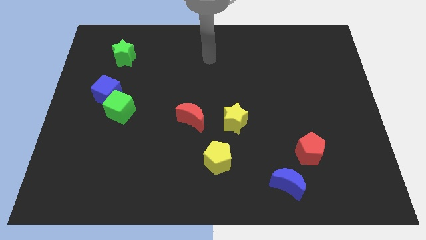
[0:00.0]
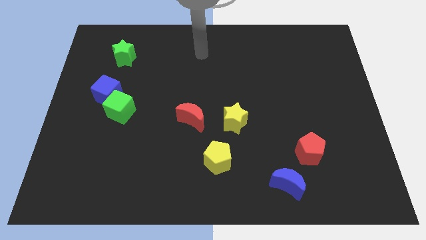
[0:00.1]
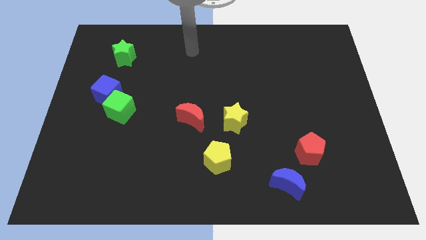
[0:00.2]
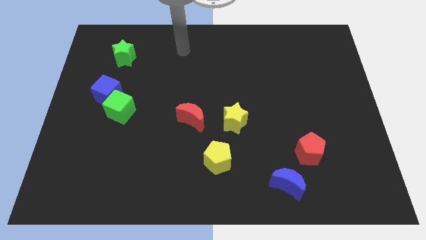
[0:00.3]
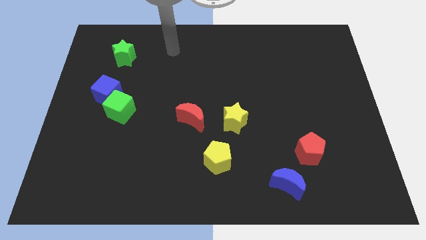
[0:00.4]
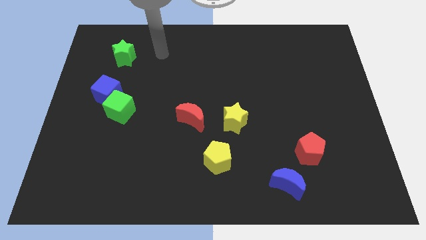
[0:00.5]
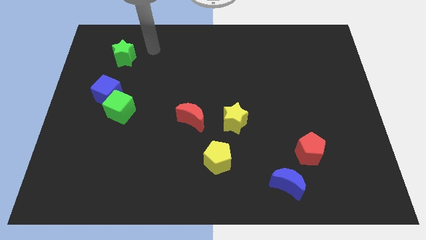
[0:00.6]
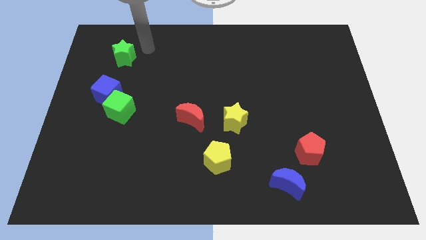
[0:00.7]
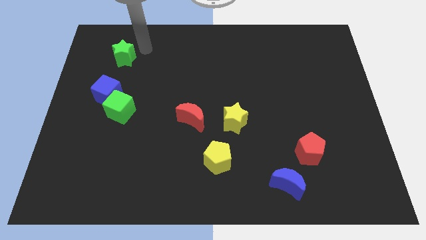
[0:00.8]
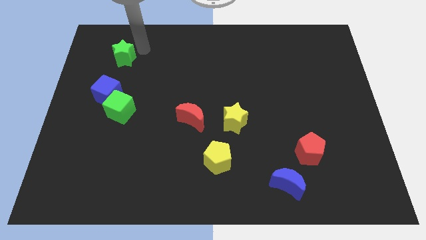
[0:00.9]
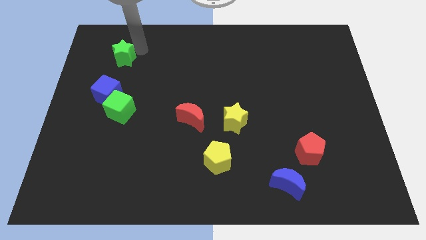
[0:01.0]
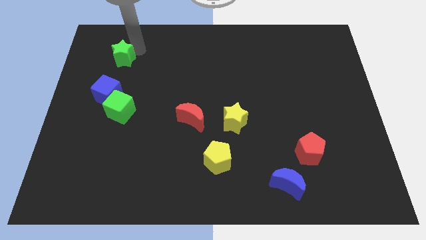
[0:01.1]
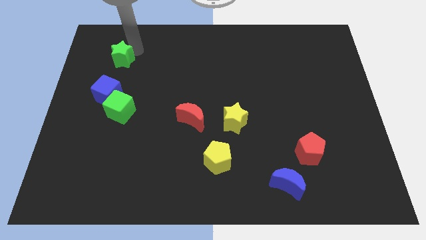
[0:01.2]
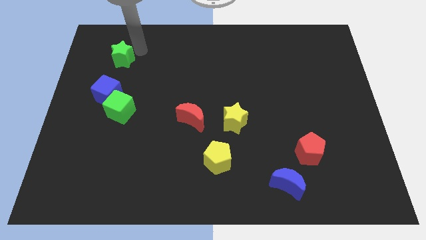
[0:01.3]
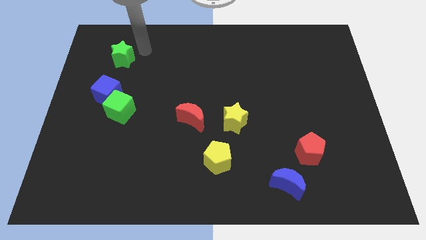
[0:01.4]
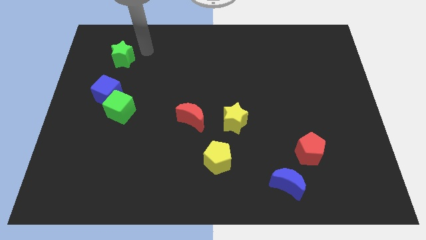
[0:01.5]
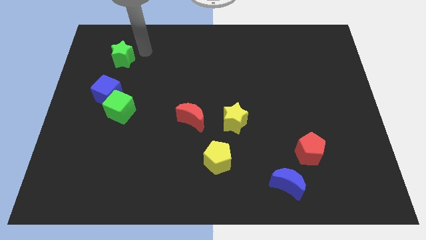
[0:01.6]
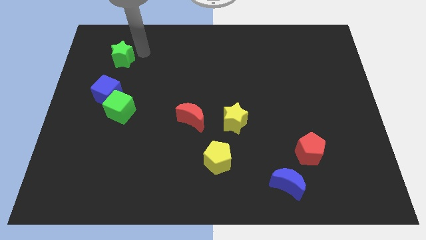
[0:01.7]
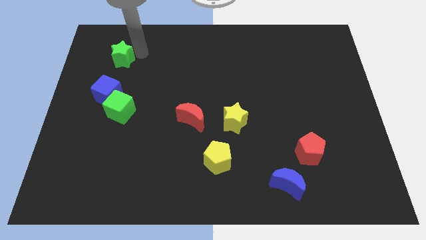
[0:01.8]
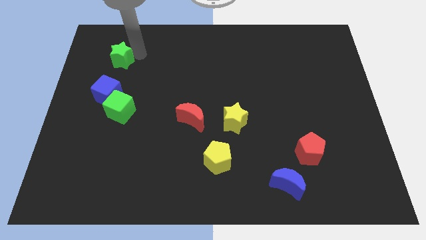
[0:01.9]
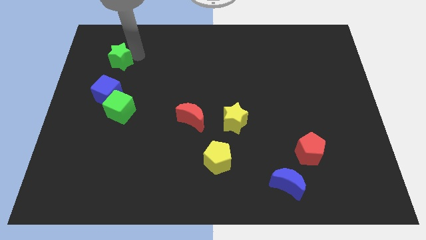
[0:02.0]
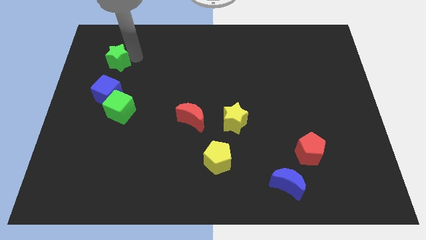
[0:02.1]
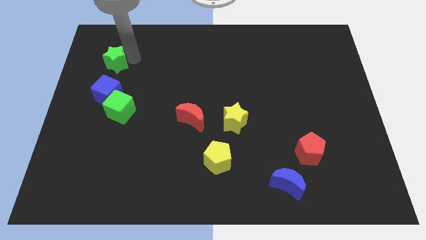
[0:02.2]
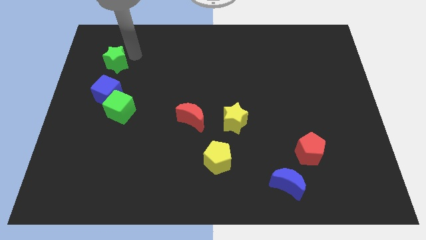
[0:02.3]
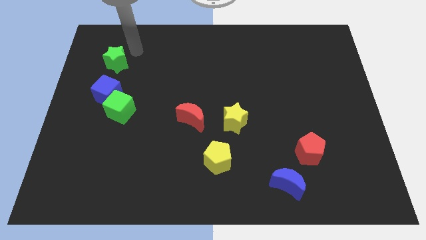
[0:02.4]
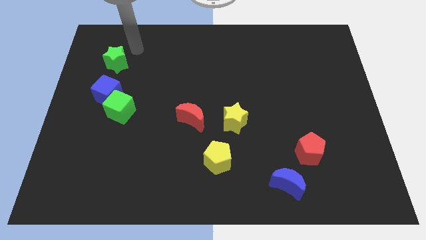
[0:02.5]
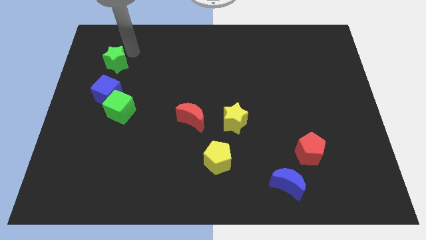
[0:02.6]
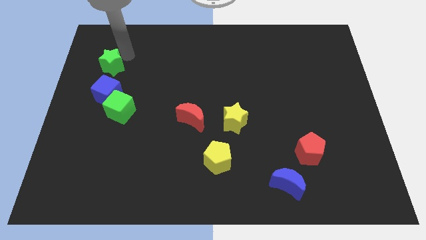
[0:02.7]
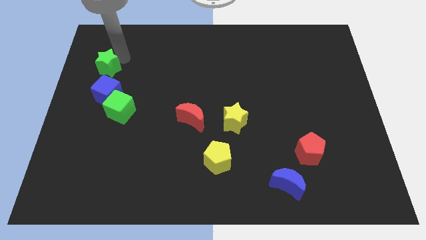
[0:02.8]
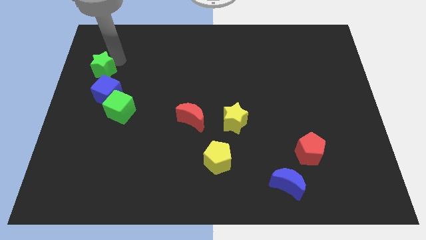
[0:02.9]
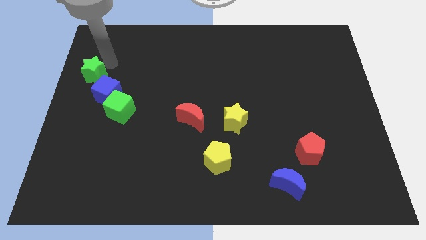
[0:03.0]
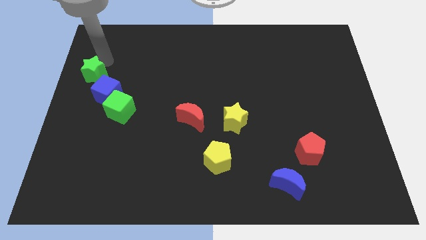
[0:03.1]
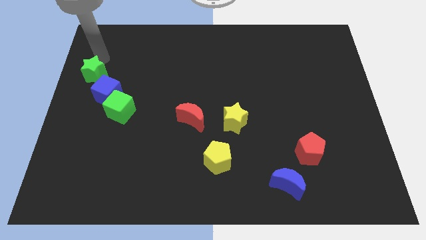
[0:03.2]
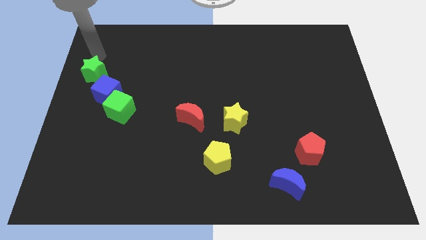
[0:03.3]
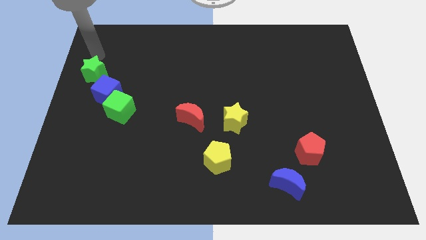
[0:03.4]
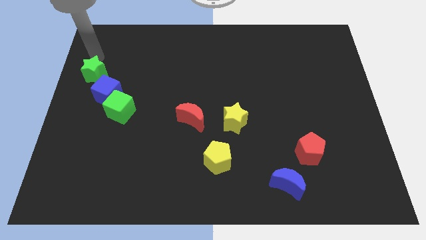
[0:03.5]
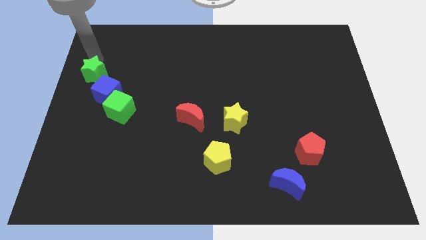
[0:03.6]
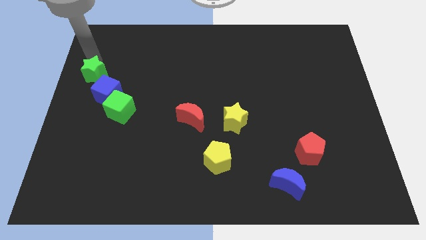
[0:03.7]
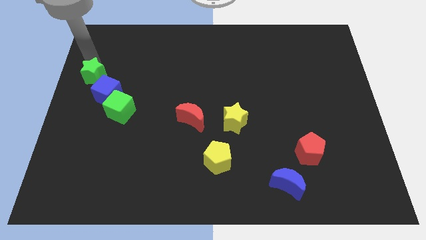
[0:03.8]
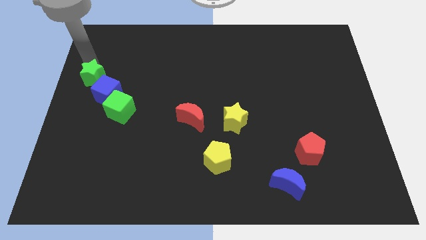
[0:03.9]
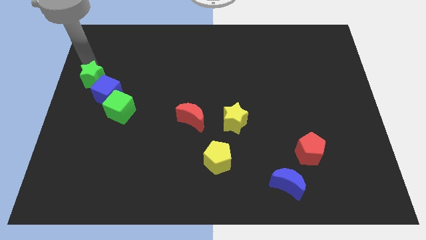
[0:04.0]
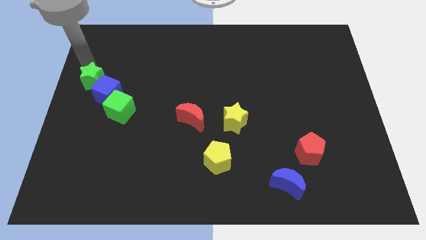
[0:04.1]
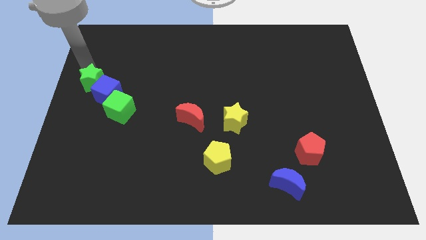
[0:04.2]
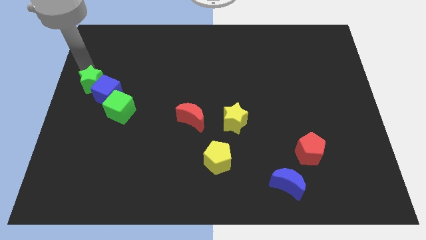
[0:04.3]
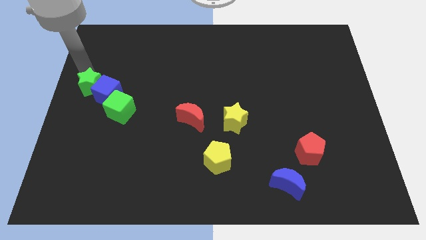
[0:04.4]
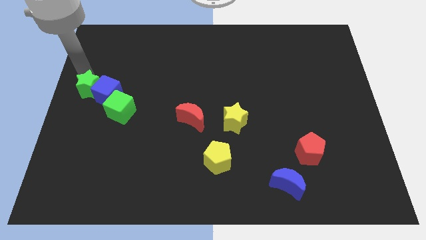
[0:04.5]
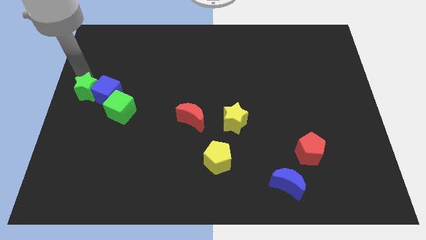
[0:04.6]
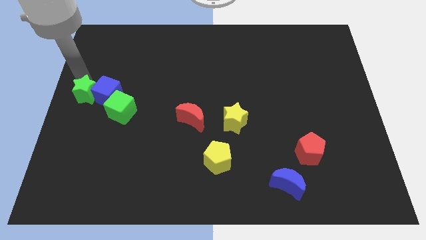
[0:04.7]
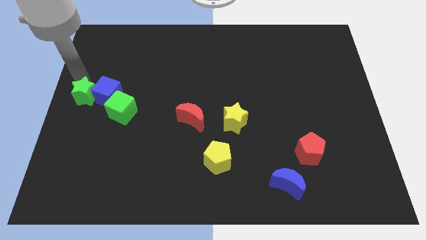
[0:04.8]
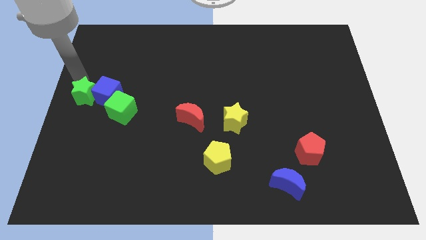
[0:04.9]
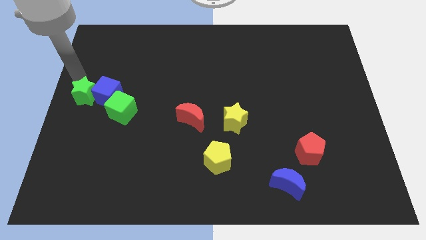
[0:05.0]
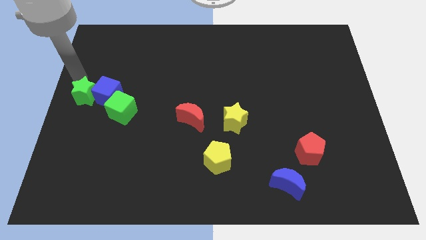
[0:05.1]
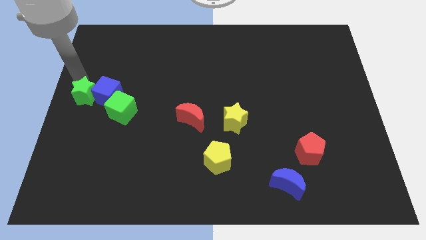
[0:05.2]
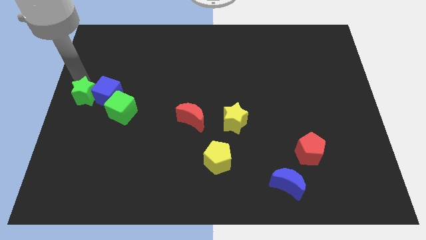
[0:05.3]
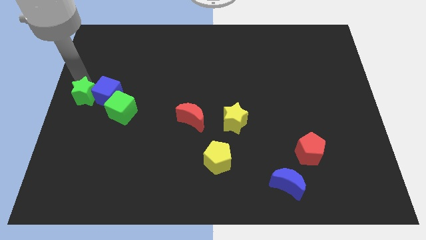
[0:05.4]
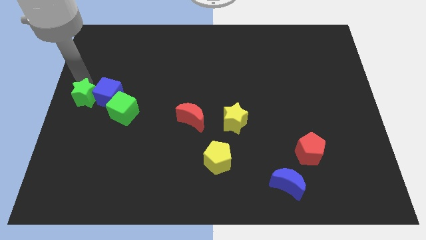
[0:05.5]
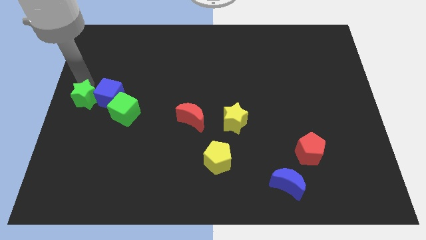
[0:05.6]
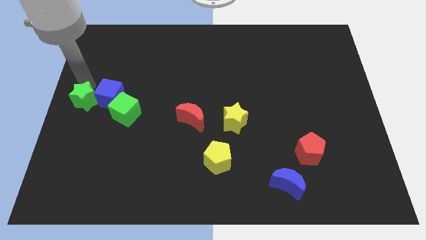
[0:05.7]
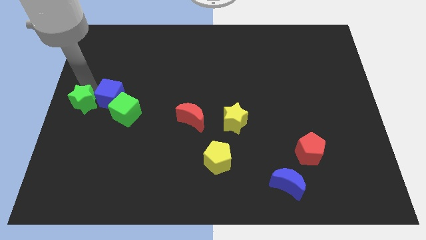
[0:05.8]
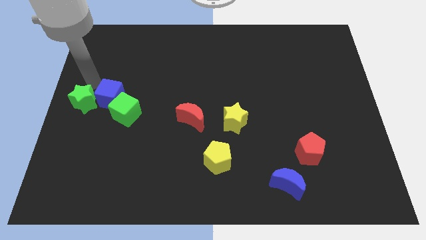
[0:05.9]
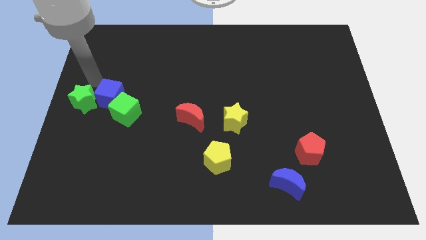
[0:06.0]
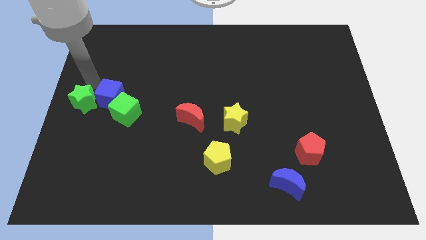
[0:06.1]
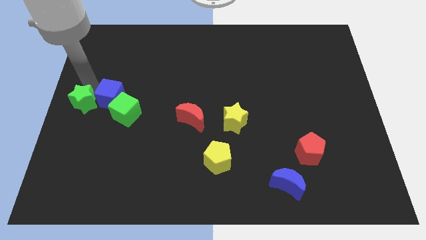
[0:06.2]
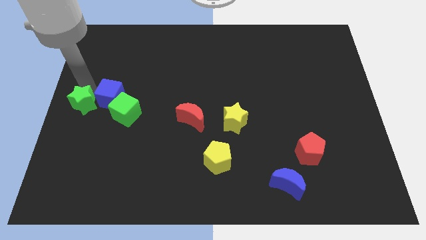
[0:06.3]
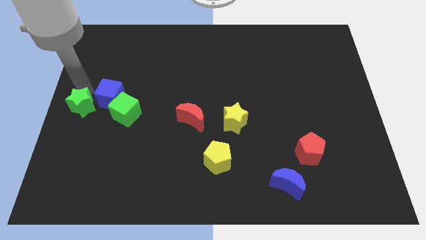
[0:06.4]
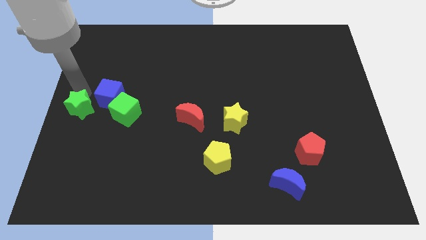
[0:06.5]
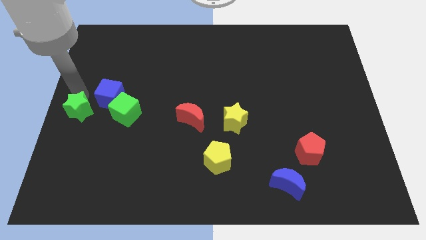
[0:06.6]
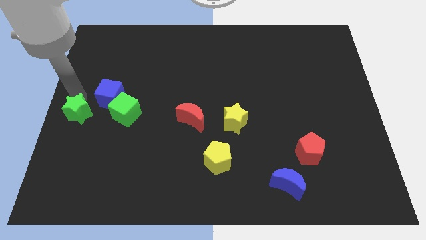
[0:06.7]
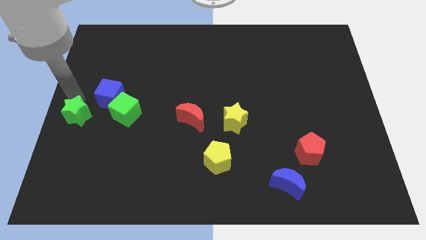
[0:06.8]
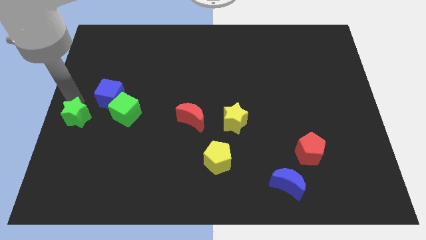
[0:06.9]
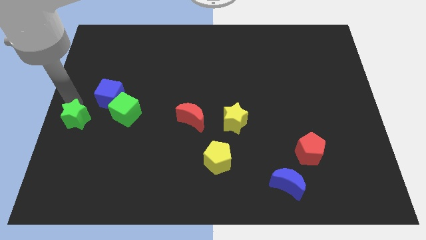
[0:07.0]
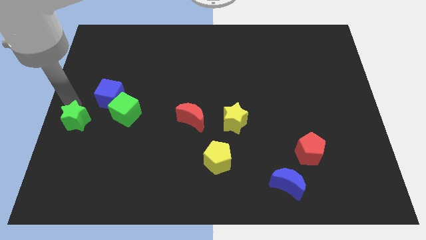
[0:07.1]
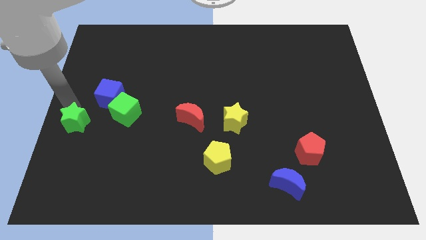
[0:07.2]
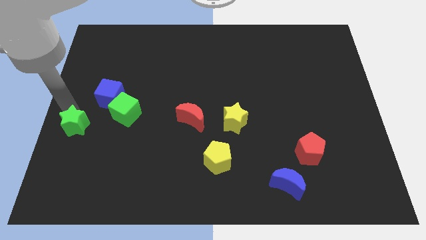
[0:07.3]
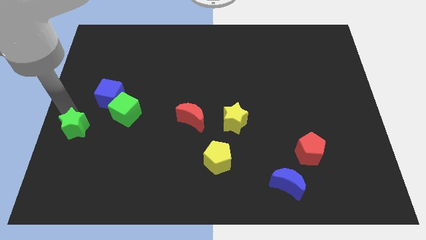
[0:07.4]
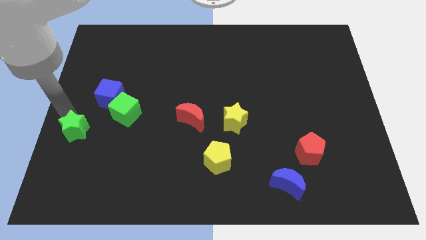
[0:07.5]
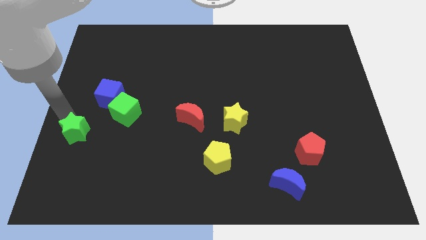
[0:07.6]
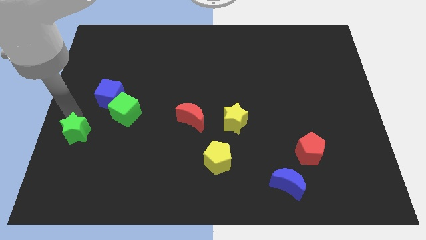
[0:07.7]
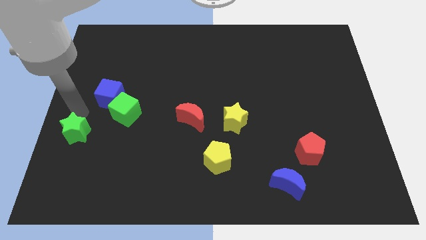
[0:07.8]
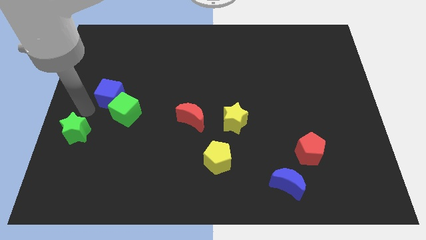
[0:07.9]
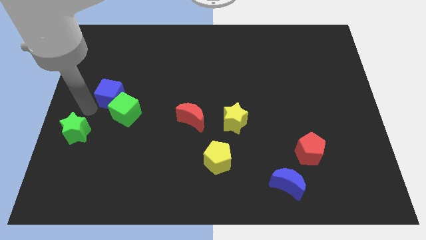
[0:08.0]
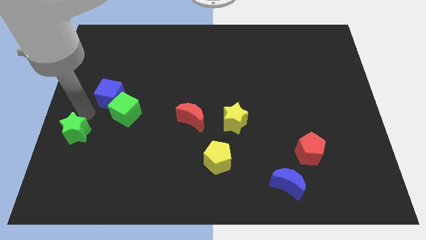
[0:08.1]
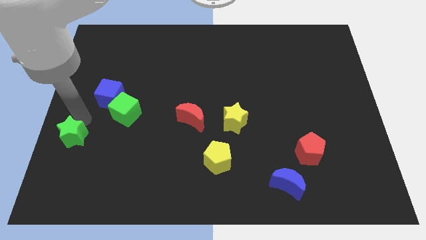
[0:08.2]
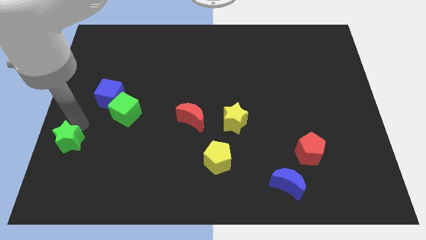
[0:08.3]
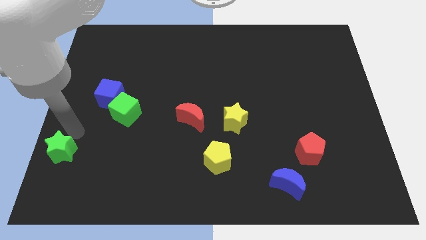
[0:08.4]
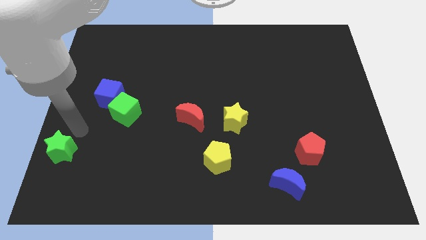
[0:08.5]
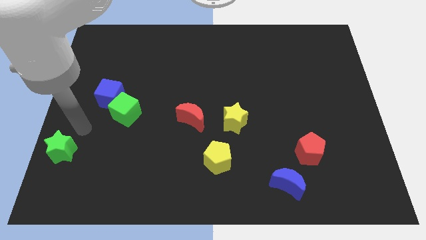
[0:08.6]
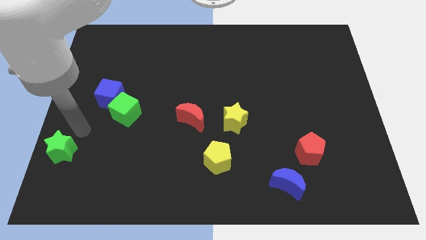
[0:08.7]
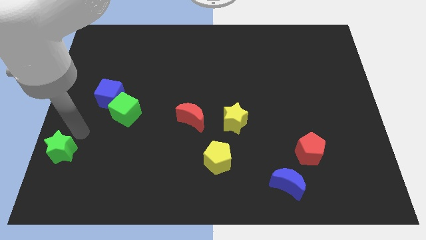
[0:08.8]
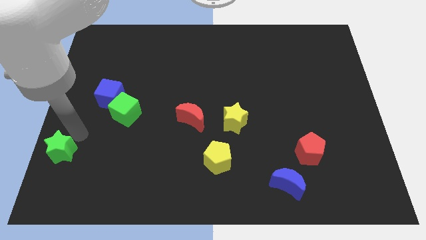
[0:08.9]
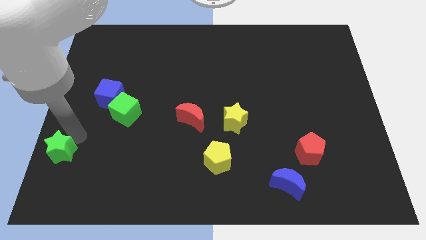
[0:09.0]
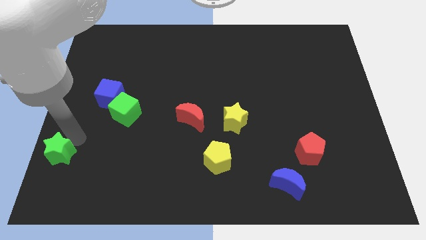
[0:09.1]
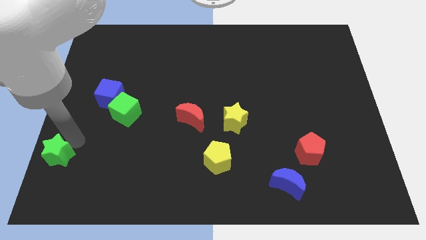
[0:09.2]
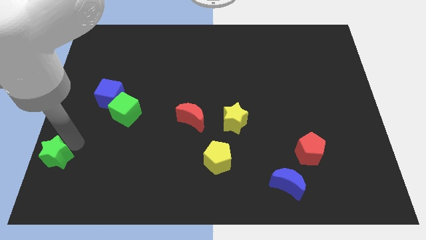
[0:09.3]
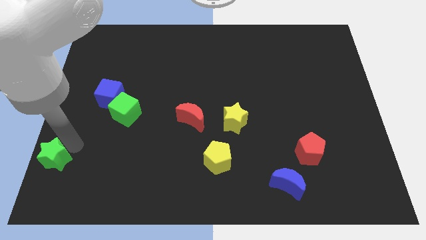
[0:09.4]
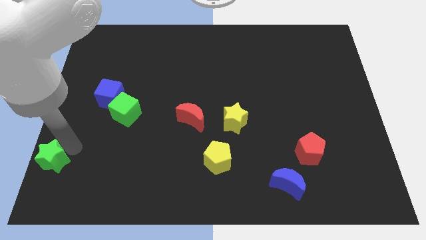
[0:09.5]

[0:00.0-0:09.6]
push the green star to the bottom left
